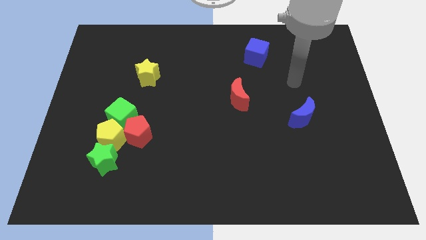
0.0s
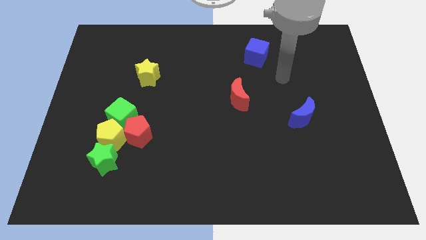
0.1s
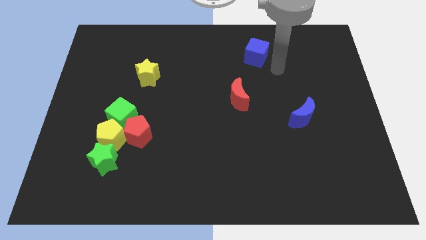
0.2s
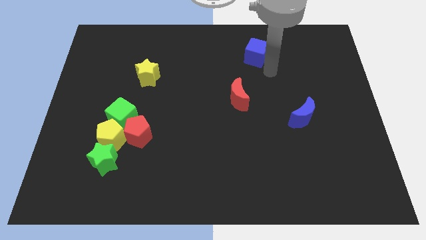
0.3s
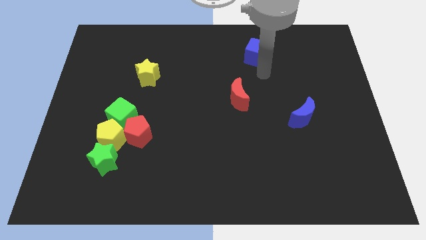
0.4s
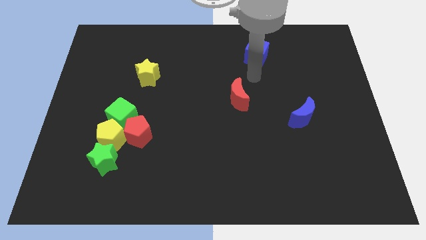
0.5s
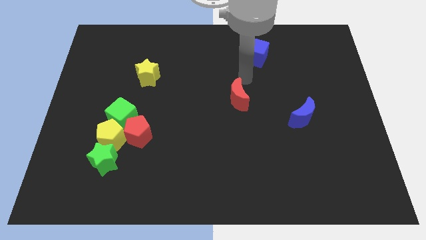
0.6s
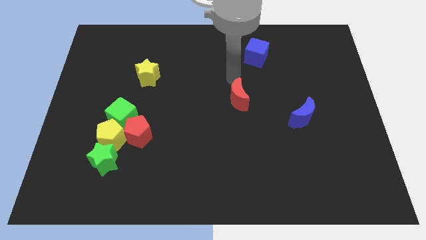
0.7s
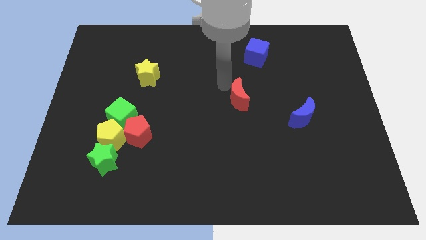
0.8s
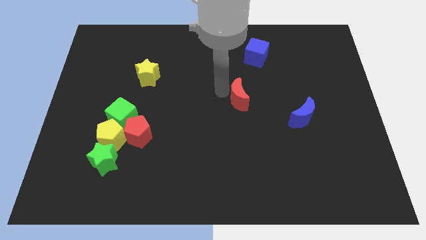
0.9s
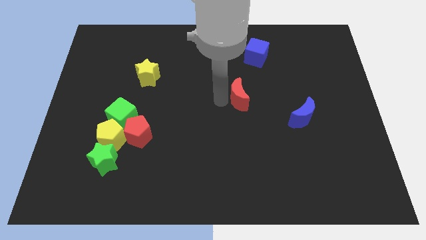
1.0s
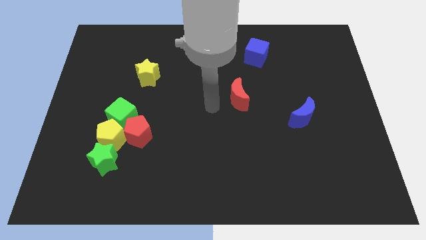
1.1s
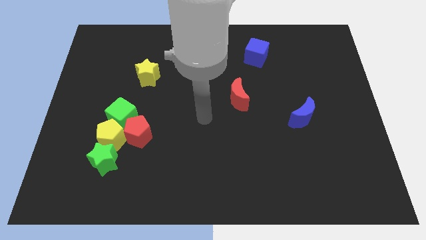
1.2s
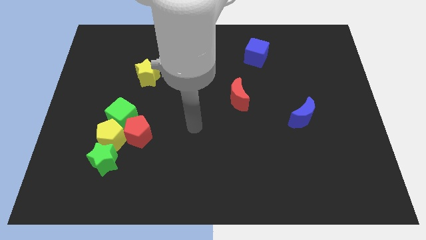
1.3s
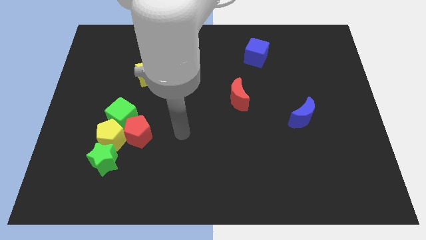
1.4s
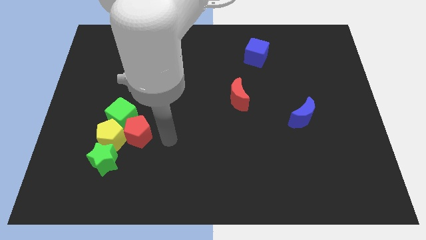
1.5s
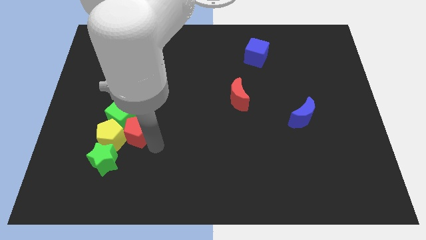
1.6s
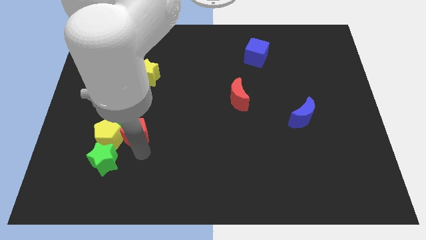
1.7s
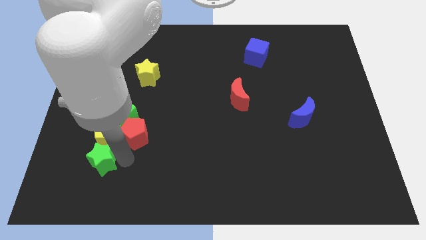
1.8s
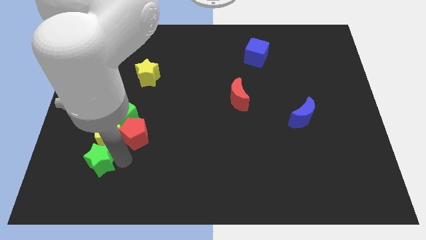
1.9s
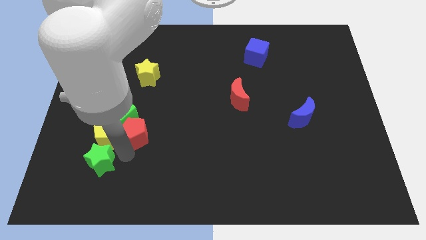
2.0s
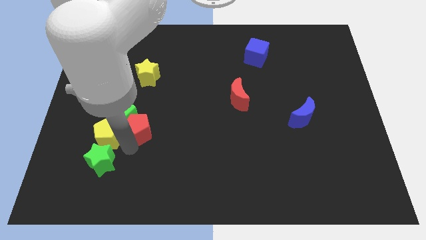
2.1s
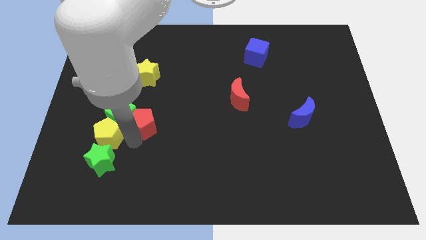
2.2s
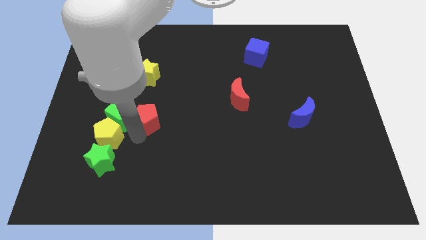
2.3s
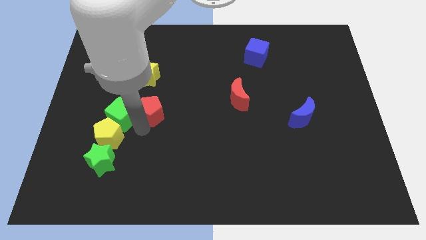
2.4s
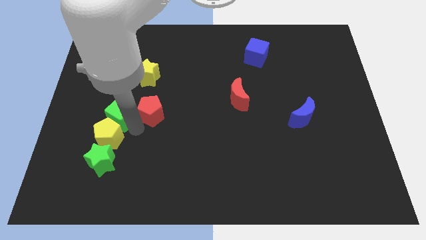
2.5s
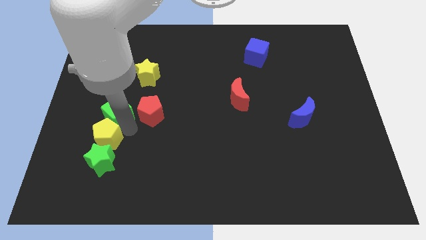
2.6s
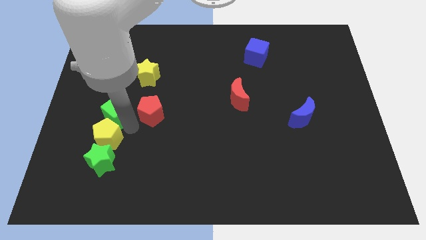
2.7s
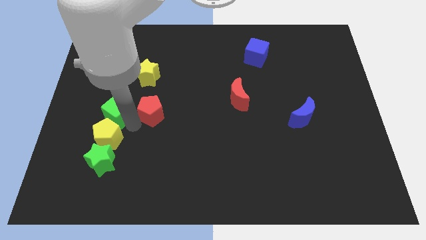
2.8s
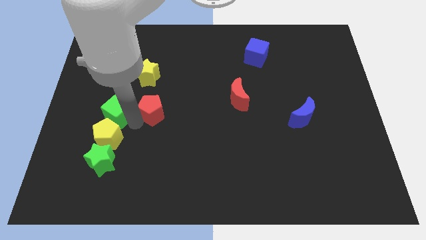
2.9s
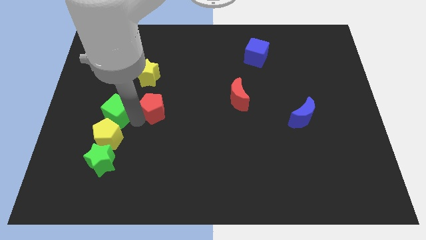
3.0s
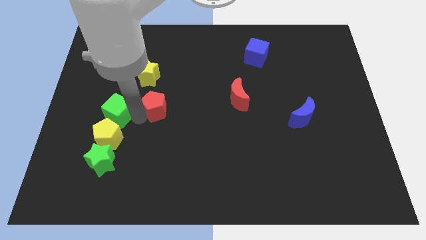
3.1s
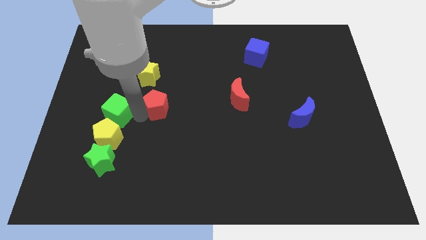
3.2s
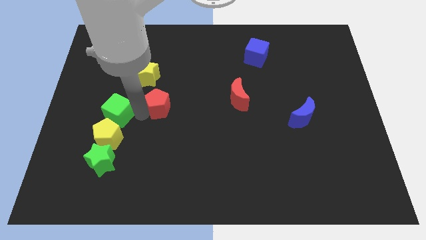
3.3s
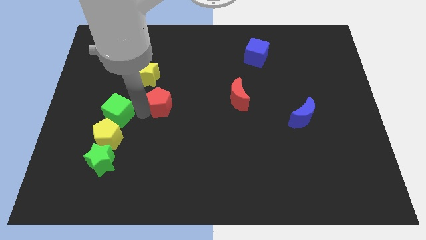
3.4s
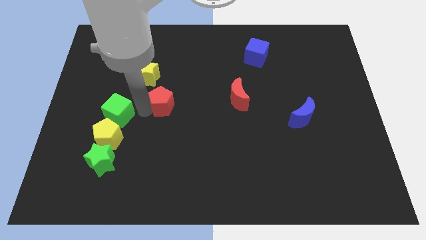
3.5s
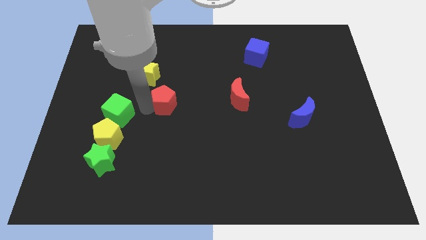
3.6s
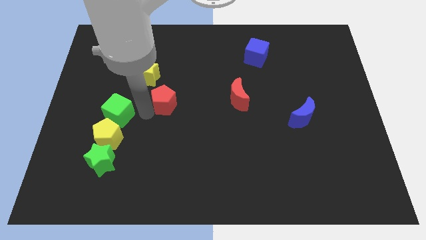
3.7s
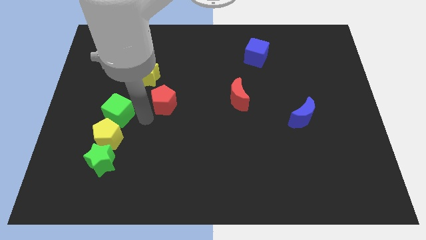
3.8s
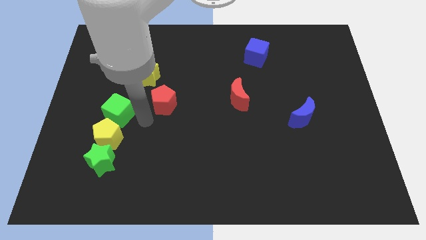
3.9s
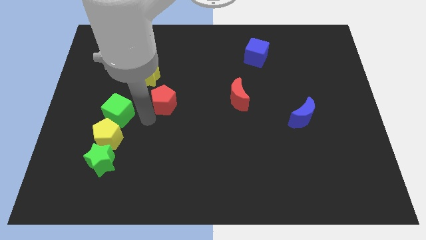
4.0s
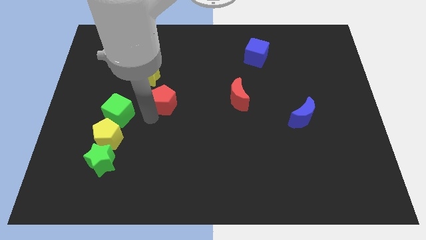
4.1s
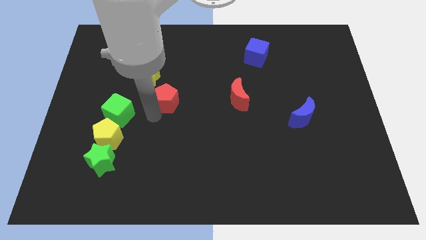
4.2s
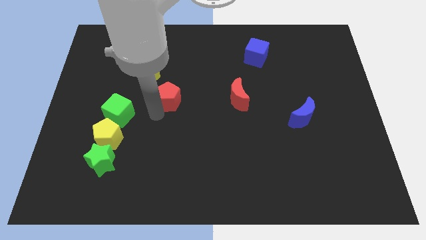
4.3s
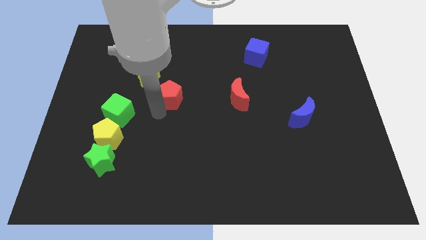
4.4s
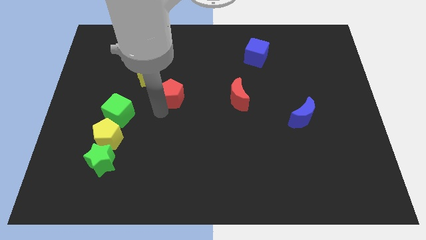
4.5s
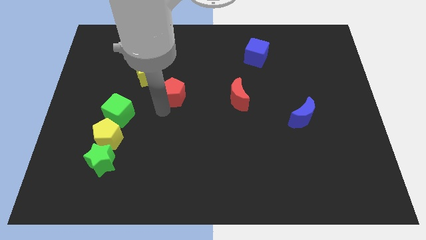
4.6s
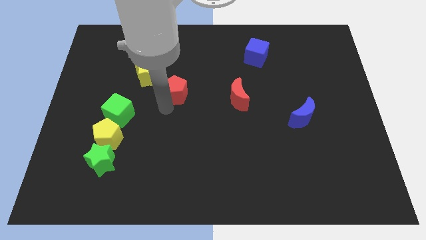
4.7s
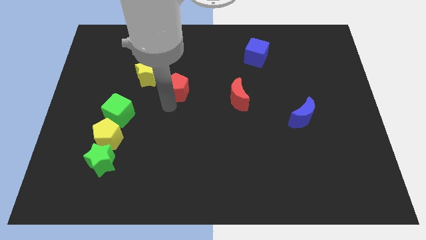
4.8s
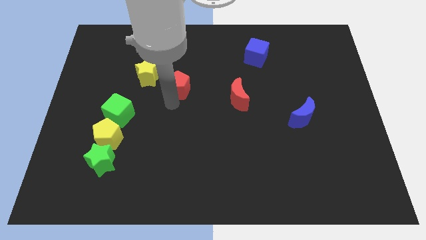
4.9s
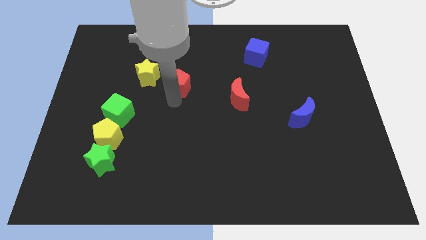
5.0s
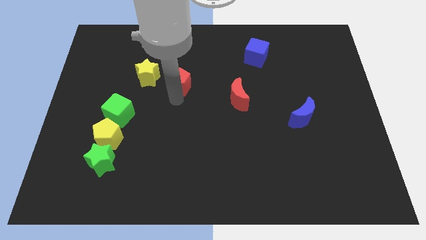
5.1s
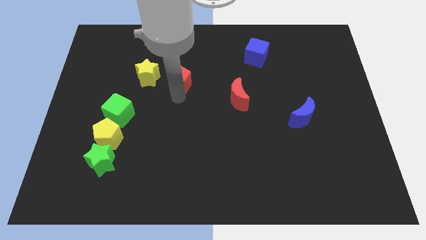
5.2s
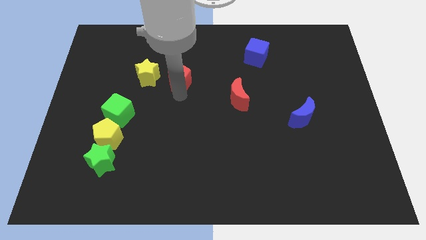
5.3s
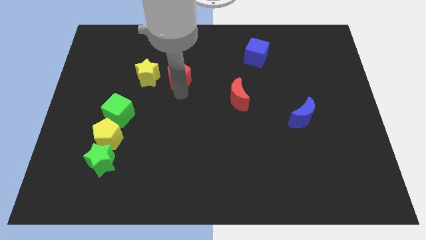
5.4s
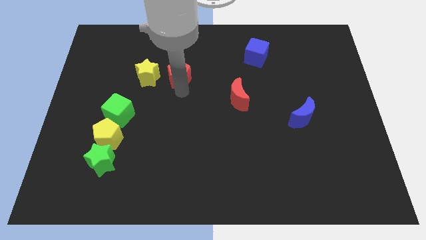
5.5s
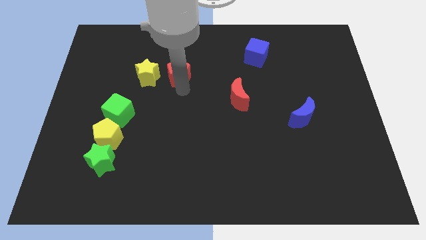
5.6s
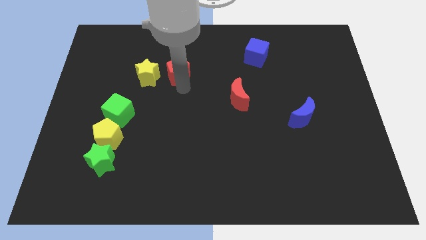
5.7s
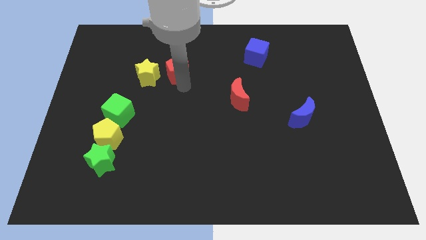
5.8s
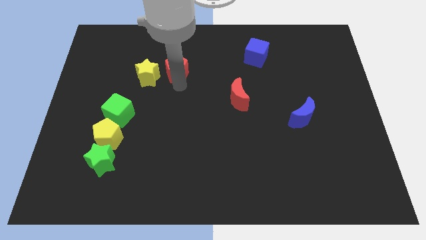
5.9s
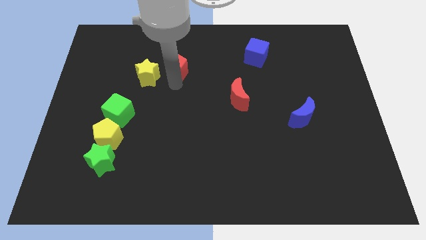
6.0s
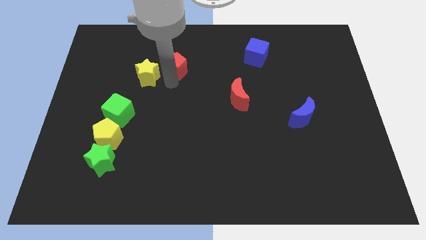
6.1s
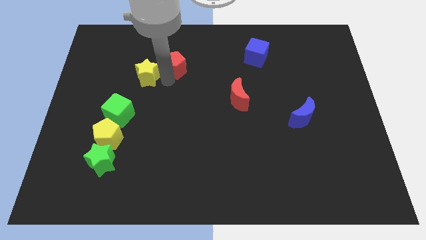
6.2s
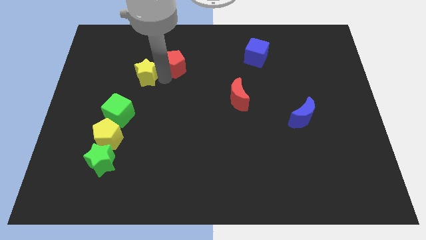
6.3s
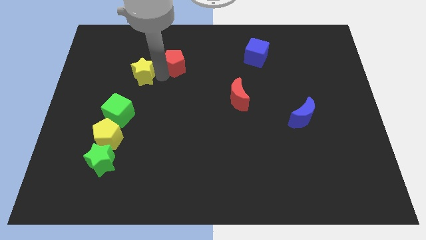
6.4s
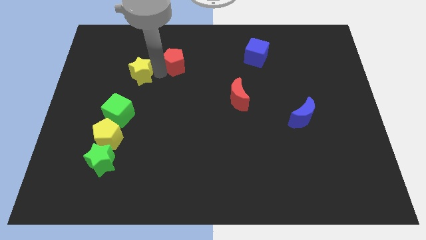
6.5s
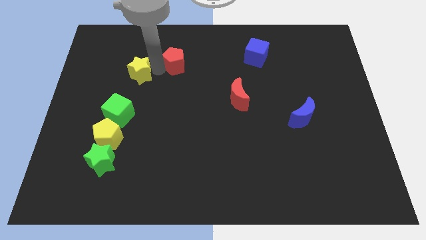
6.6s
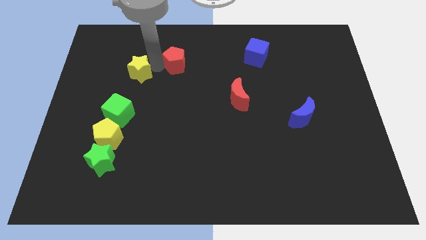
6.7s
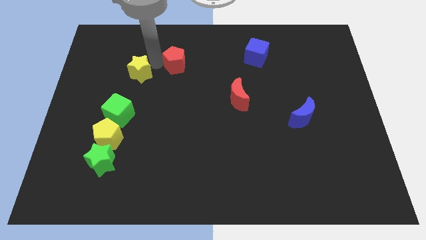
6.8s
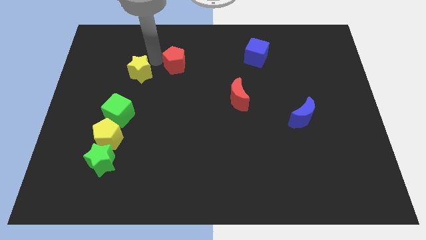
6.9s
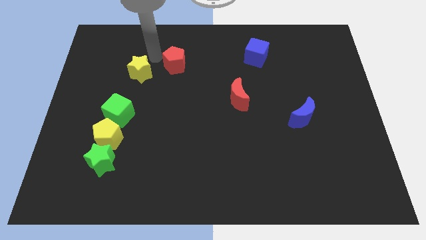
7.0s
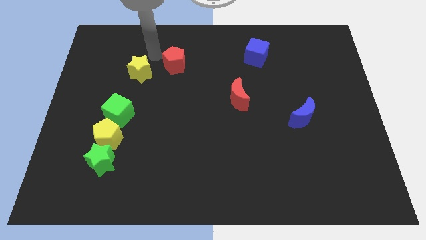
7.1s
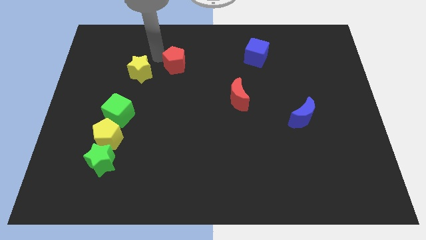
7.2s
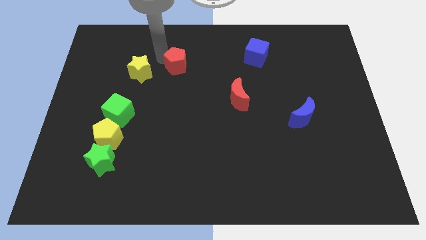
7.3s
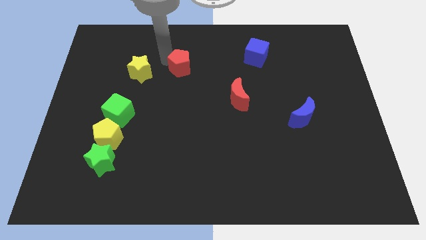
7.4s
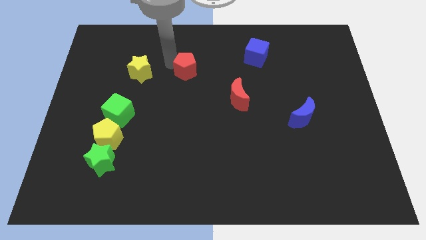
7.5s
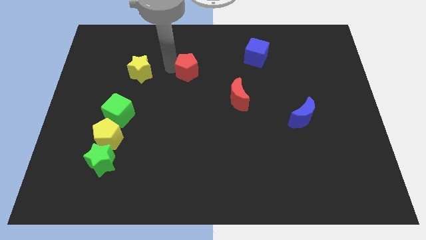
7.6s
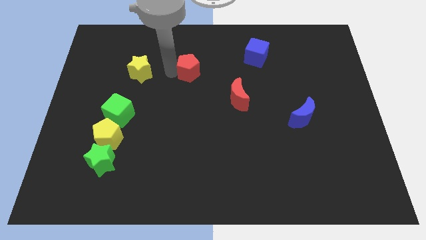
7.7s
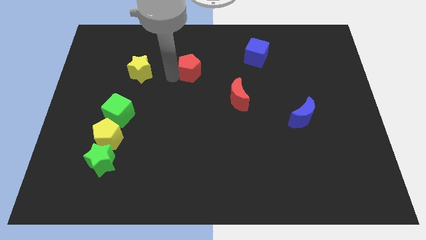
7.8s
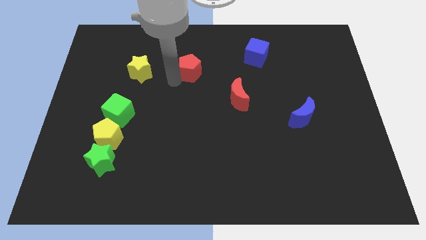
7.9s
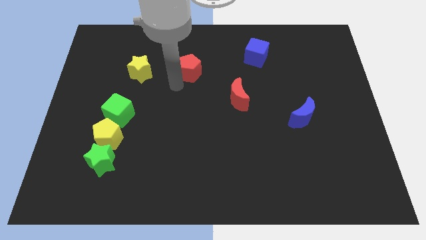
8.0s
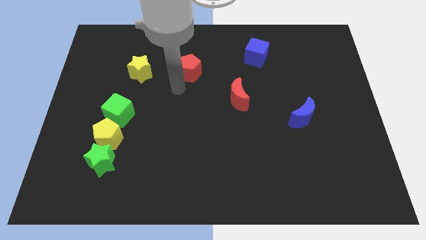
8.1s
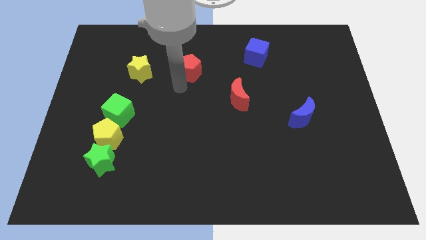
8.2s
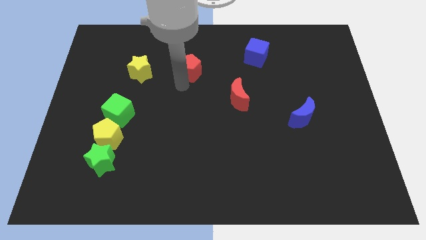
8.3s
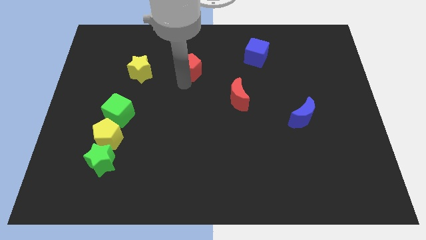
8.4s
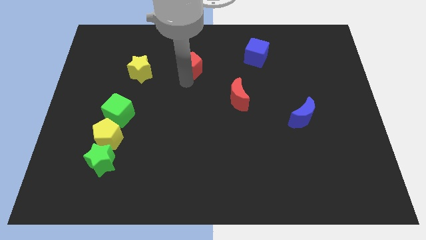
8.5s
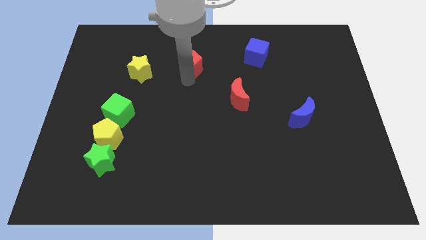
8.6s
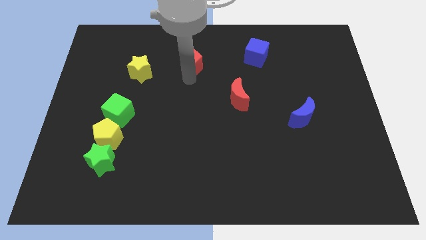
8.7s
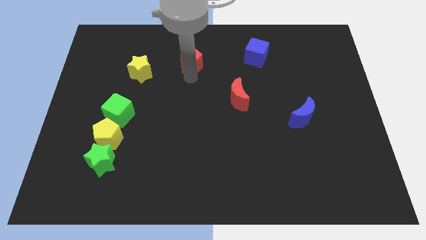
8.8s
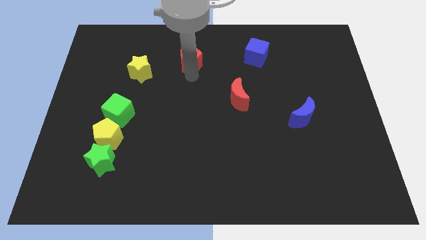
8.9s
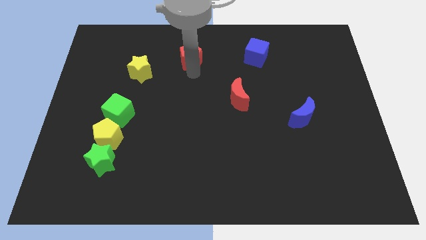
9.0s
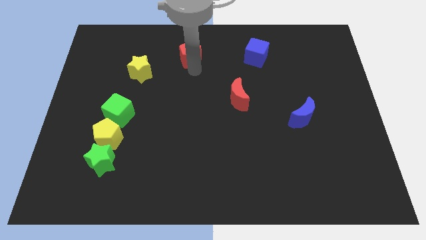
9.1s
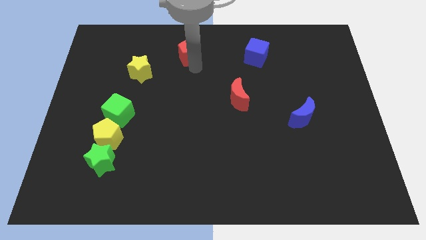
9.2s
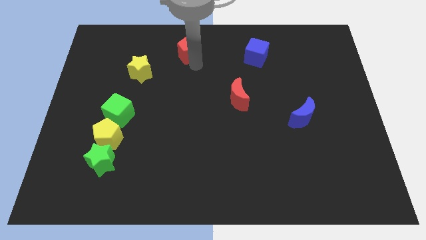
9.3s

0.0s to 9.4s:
slide the red pentagon to the top side
